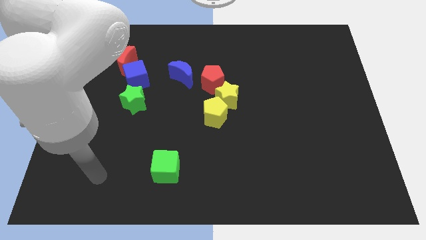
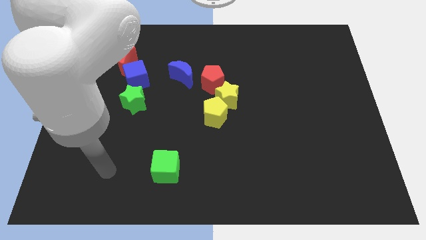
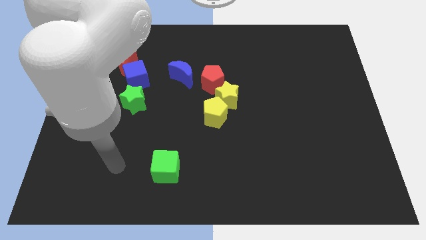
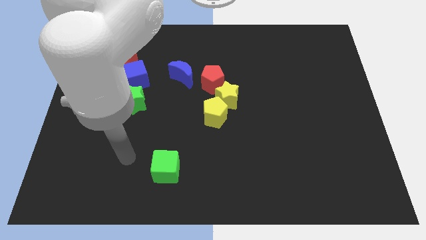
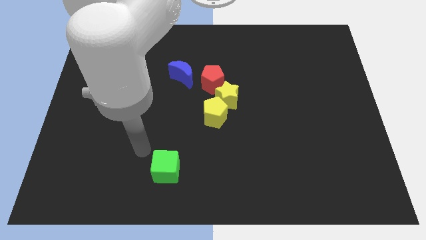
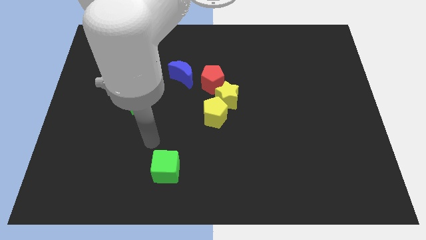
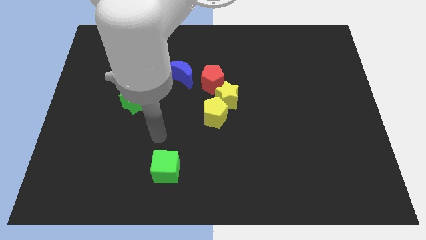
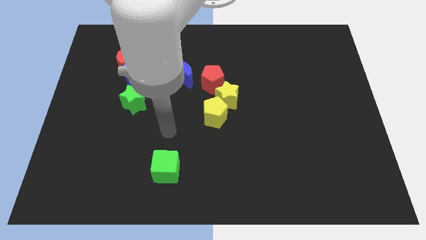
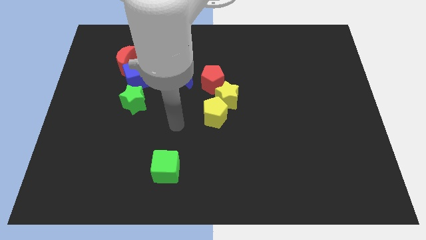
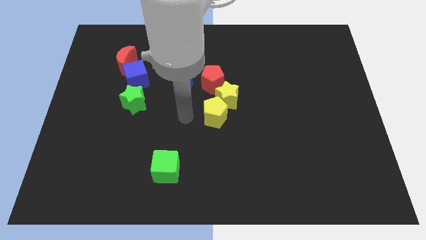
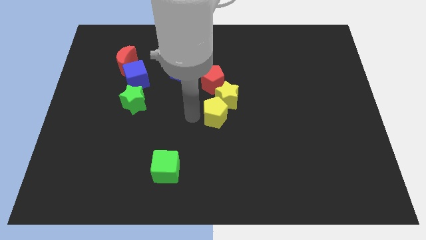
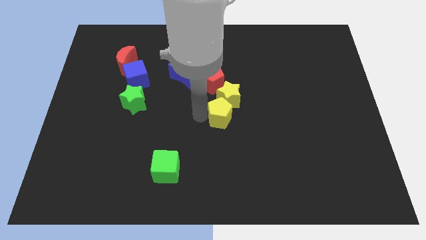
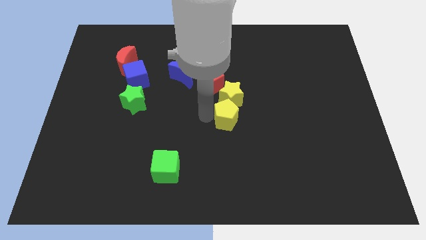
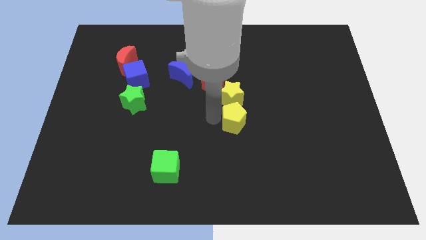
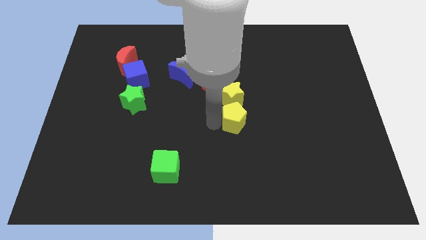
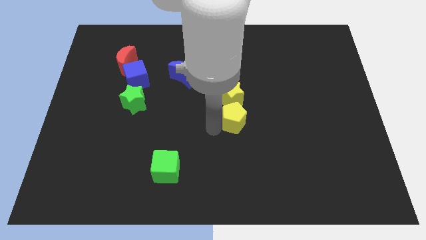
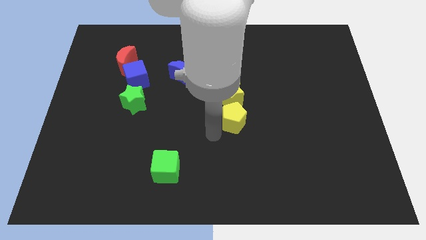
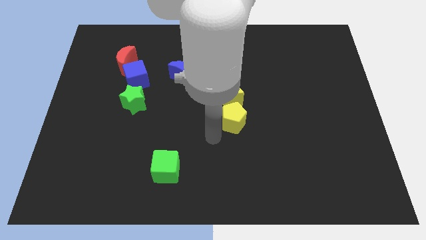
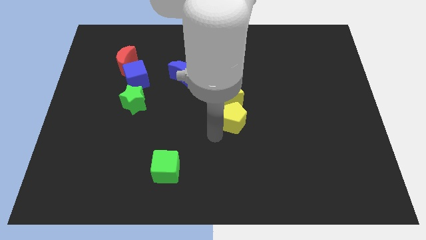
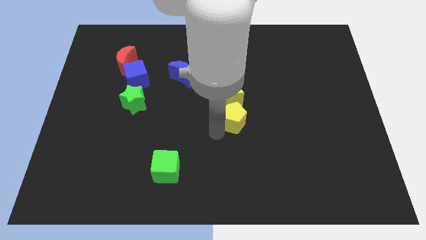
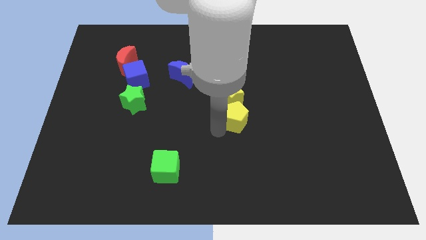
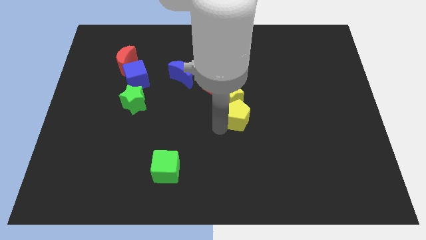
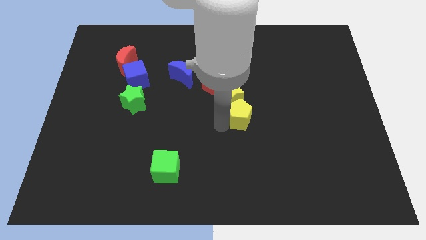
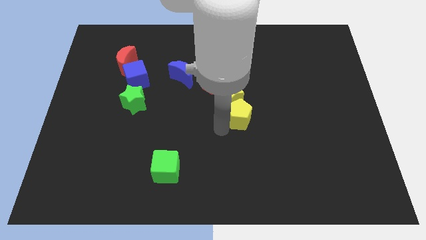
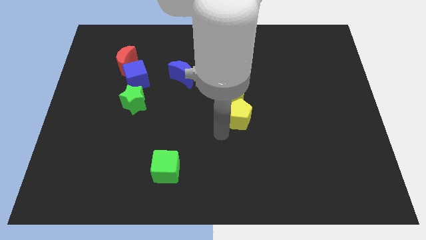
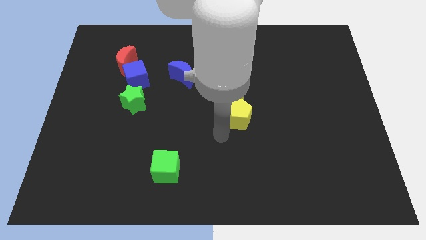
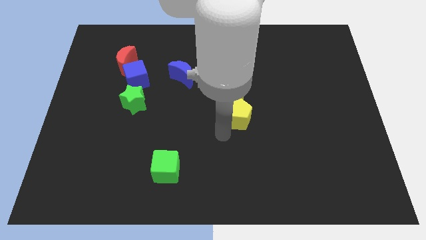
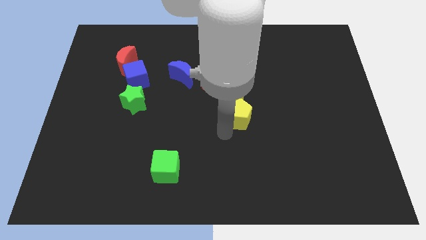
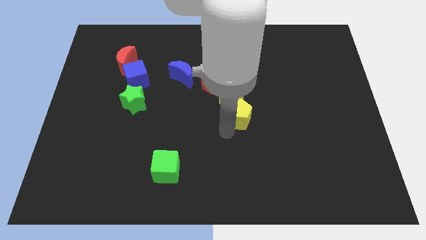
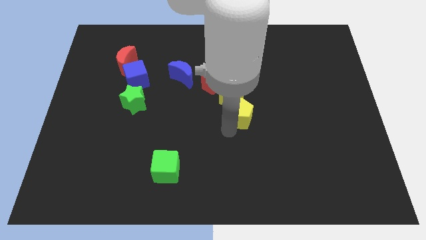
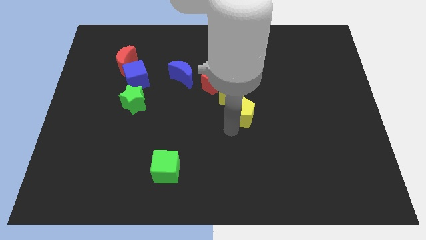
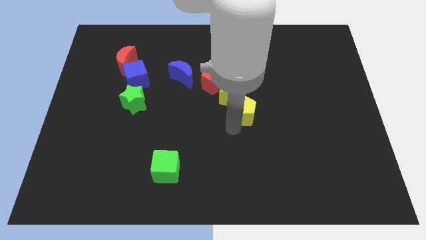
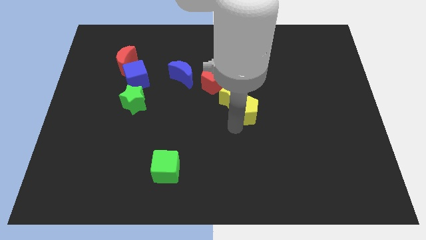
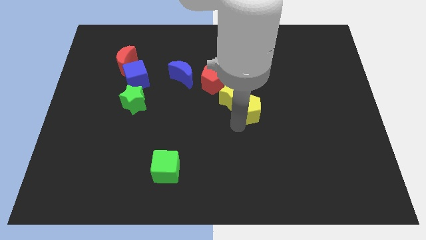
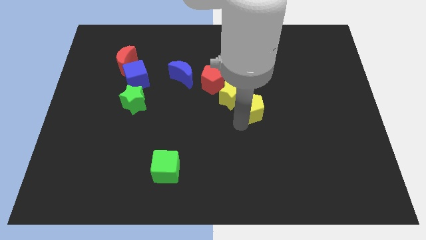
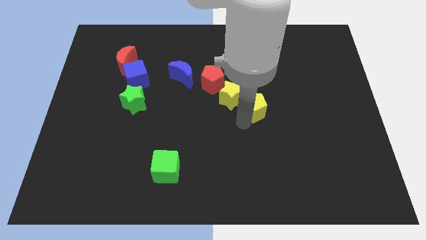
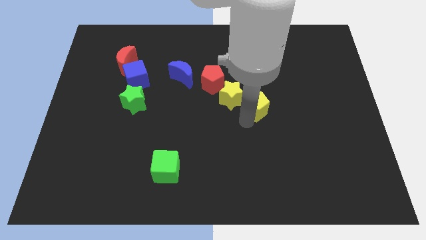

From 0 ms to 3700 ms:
move the yellow pentagon upwards and right diagonally a little

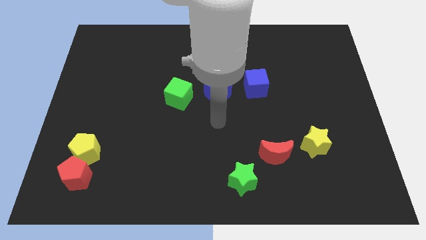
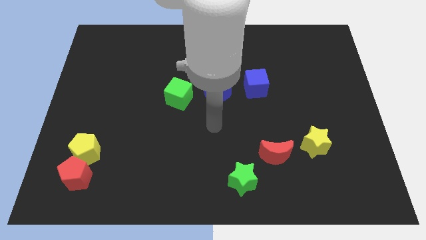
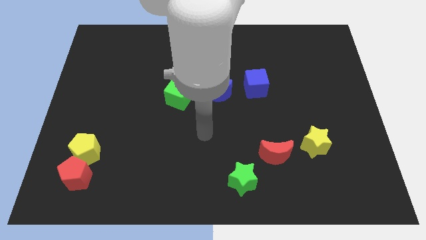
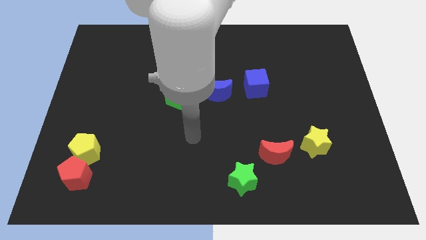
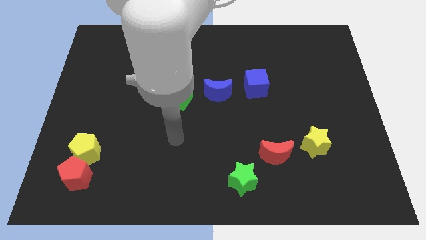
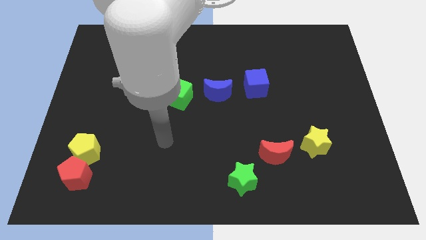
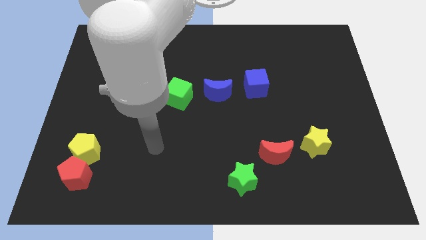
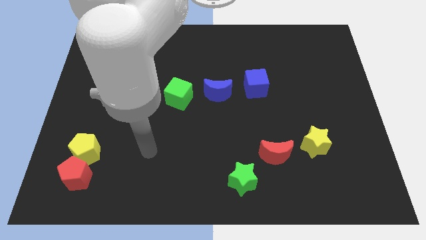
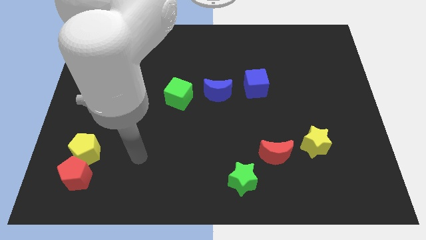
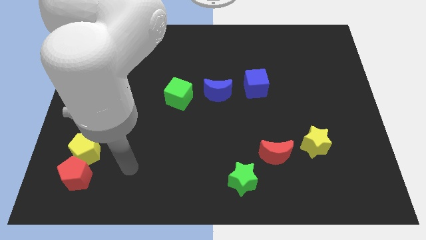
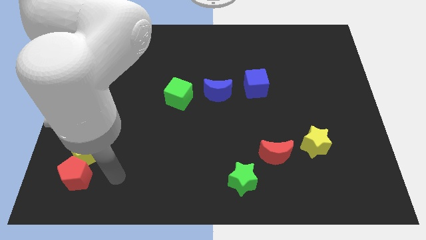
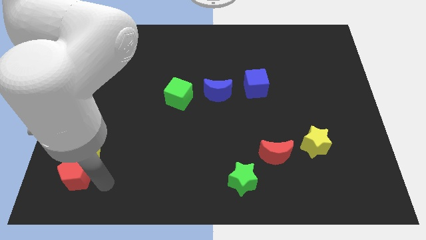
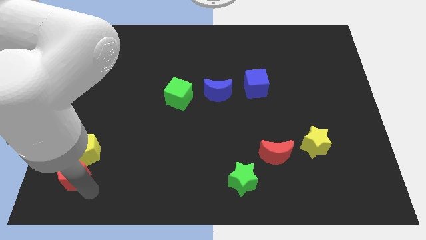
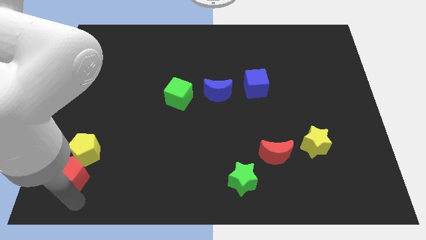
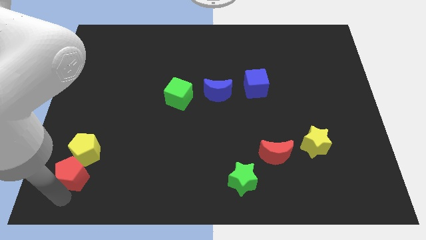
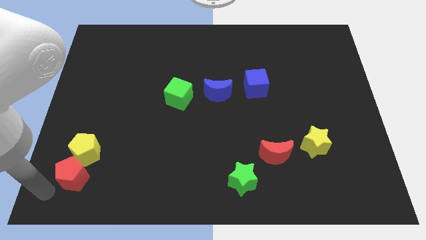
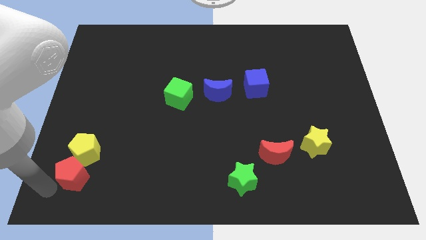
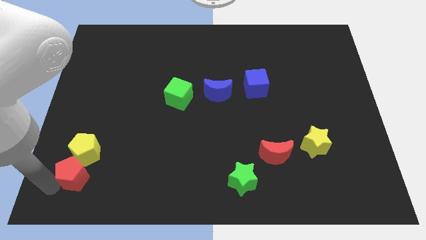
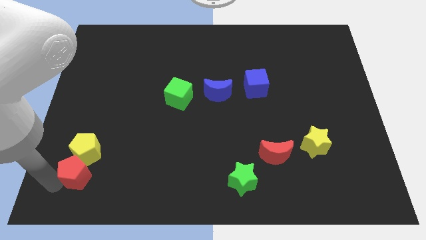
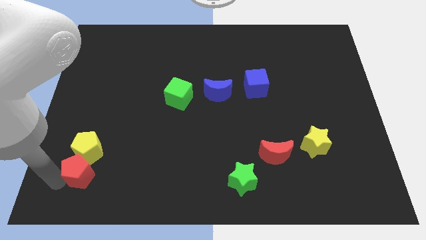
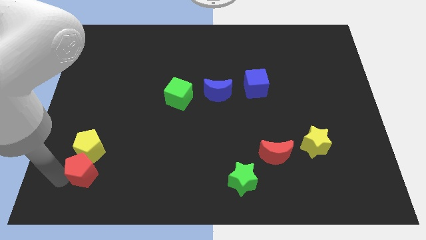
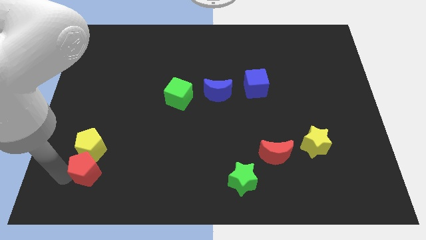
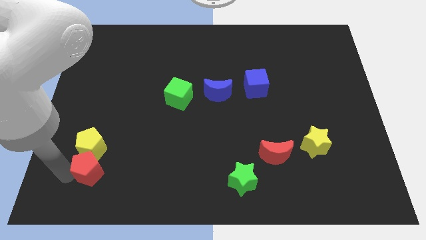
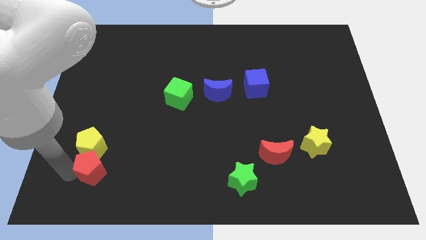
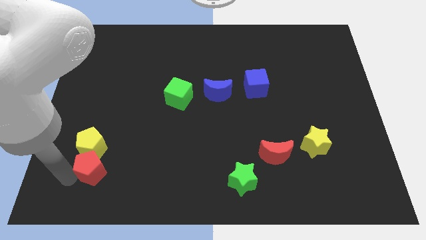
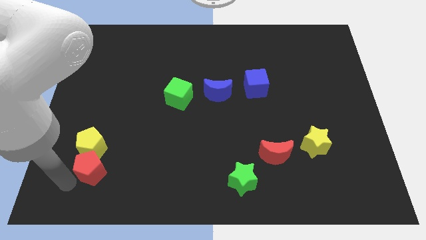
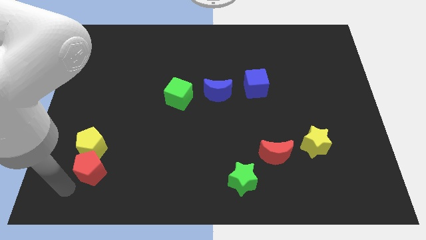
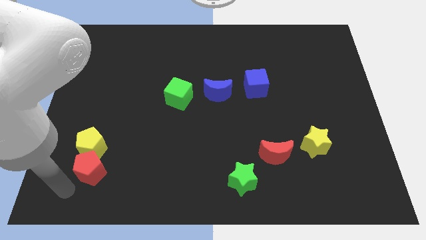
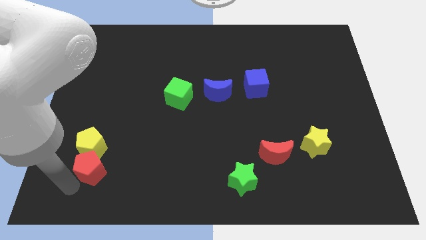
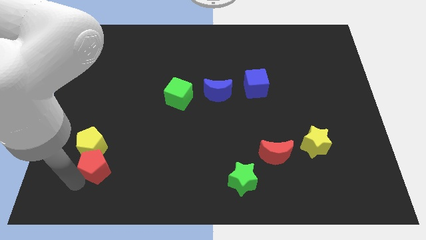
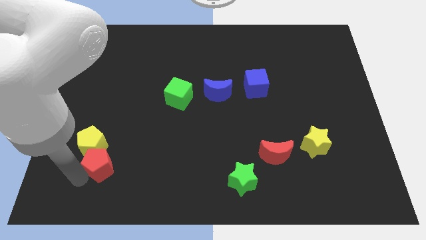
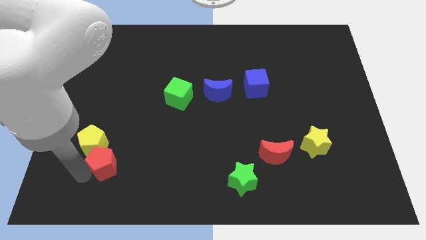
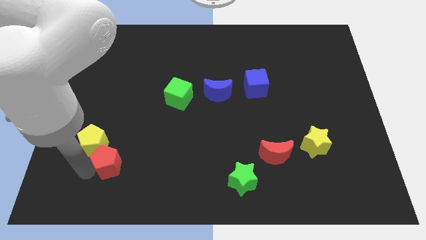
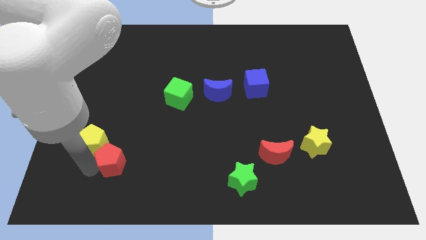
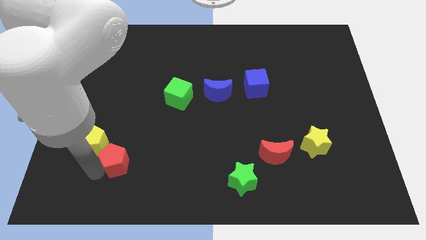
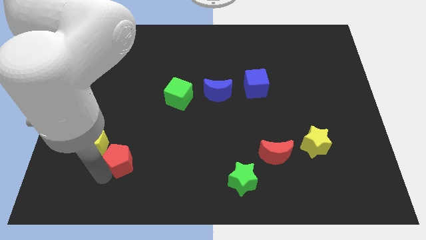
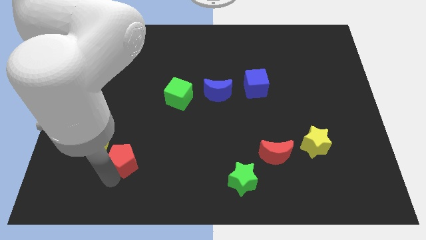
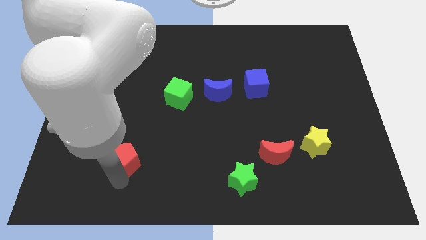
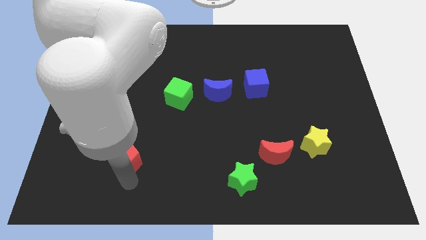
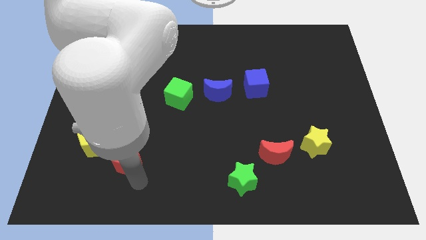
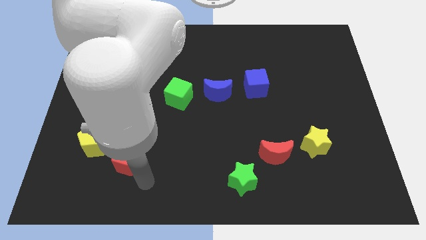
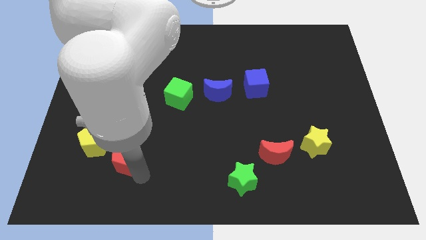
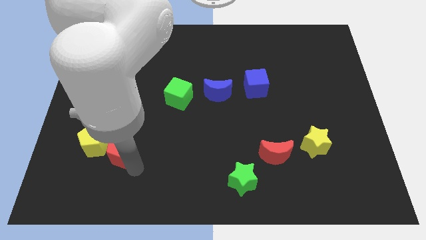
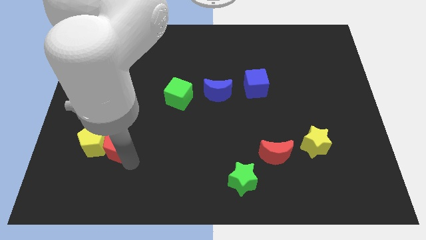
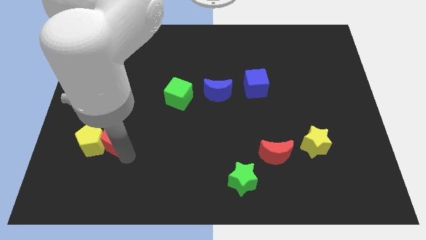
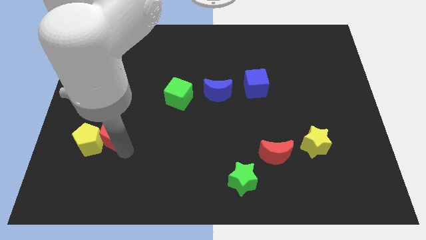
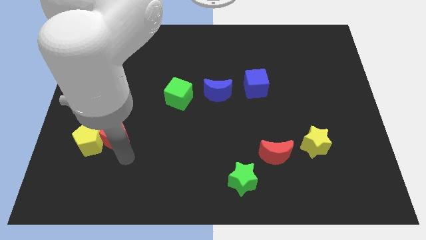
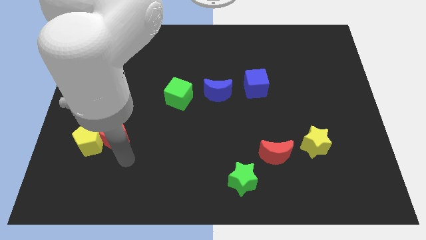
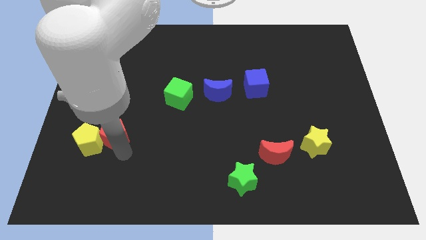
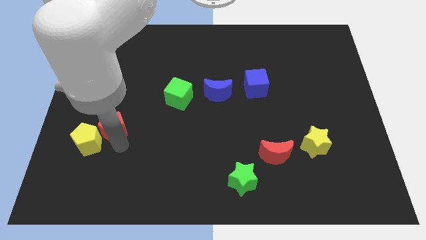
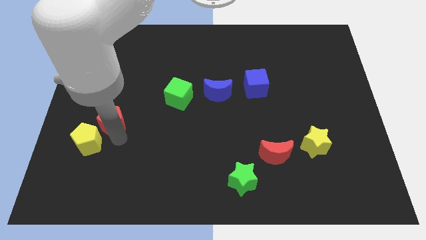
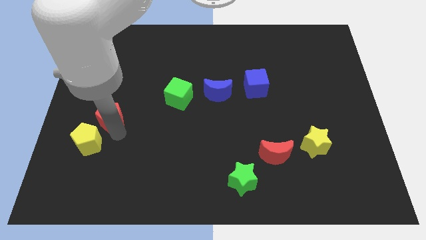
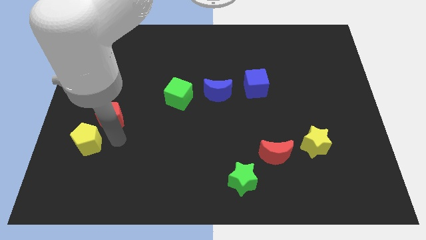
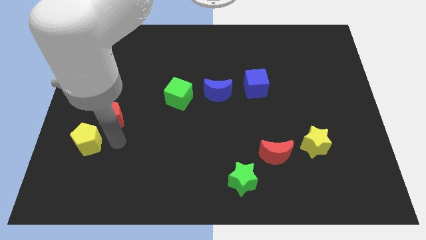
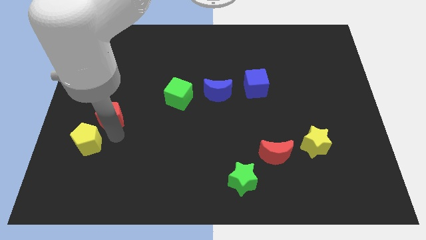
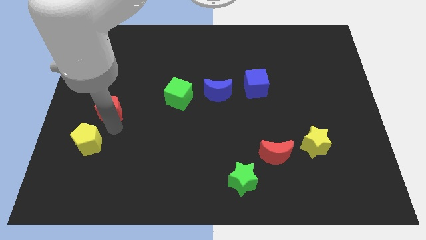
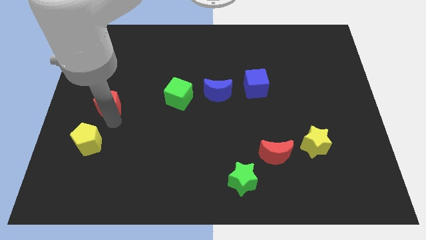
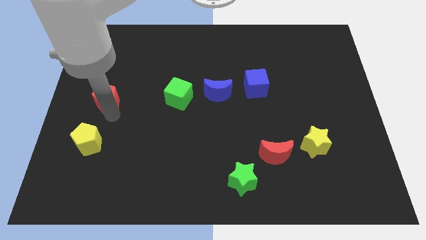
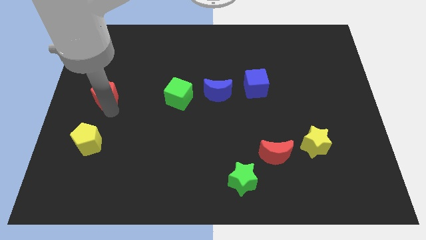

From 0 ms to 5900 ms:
slide the red pentagon up
